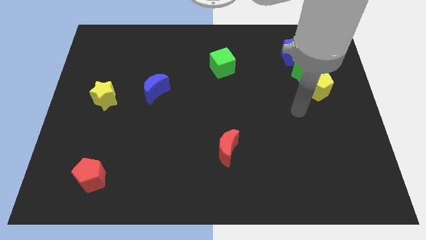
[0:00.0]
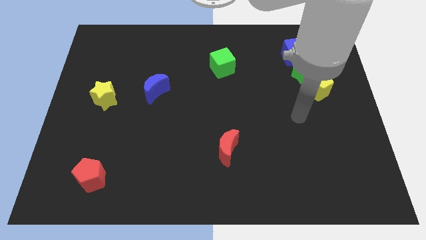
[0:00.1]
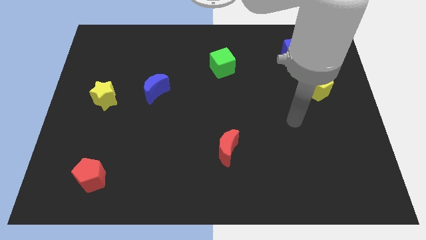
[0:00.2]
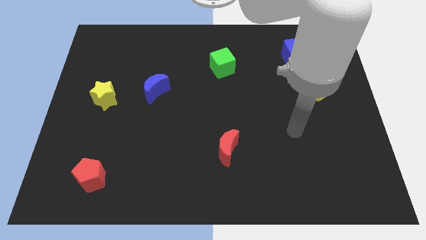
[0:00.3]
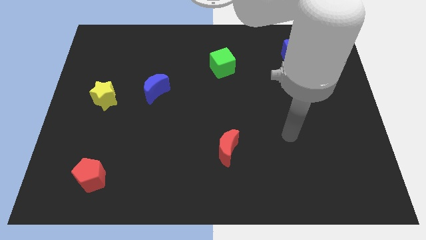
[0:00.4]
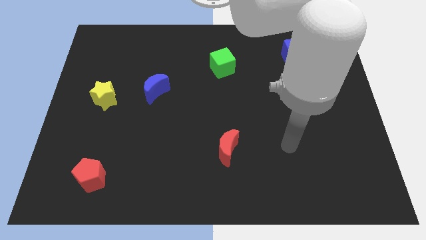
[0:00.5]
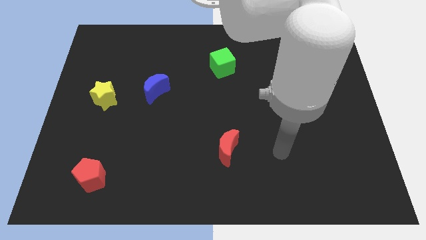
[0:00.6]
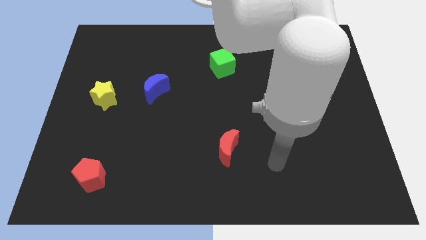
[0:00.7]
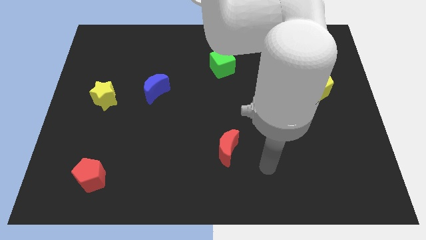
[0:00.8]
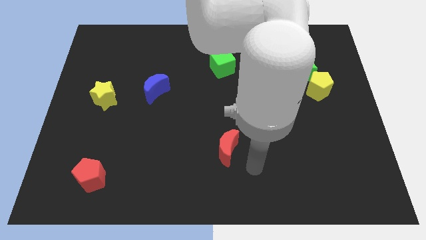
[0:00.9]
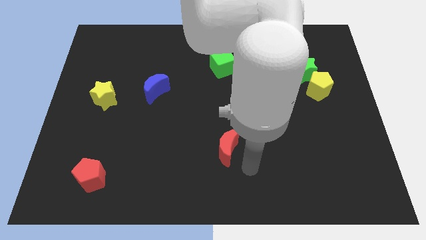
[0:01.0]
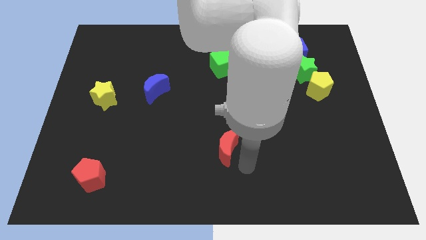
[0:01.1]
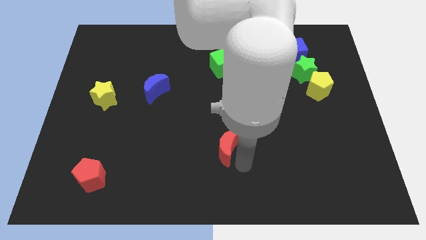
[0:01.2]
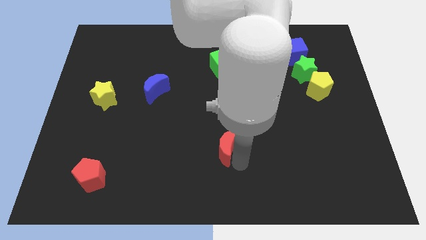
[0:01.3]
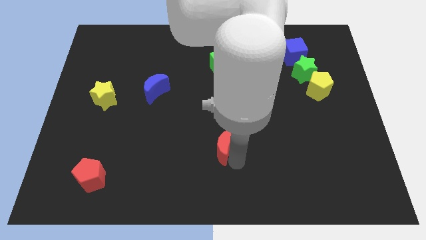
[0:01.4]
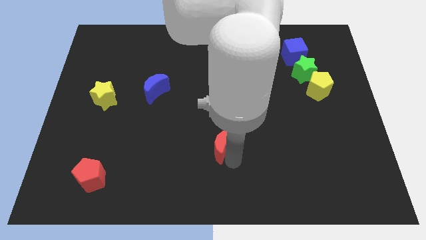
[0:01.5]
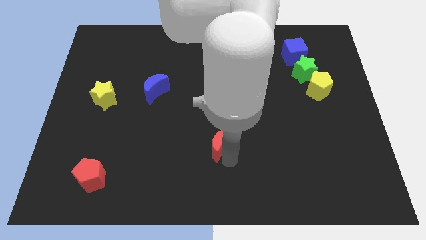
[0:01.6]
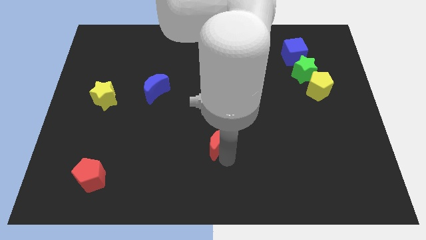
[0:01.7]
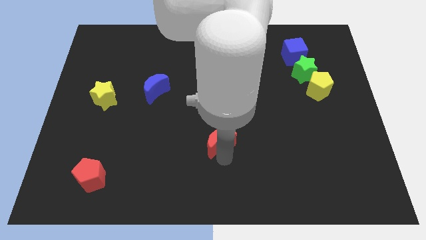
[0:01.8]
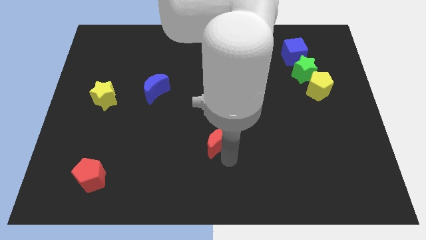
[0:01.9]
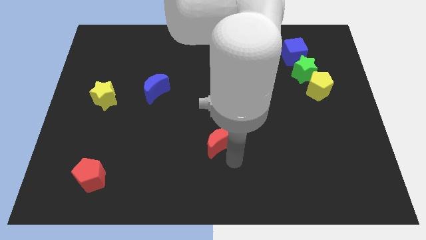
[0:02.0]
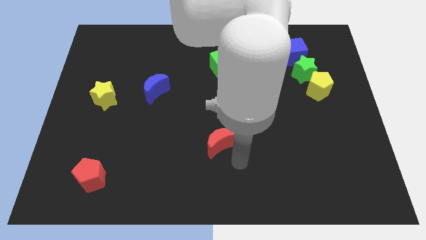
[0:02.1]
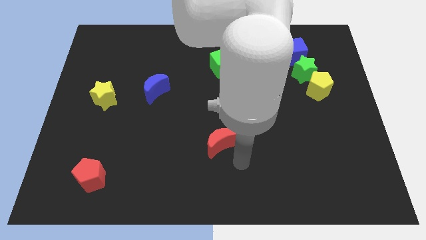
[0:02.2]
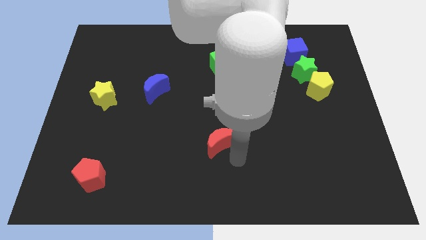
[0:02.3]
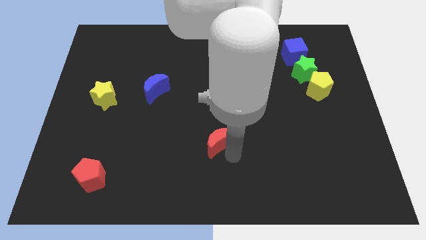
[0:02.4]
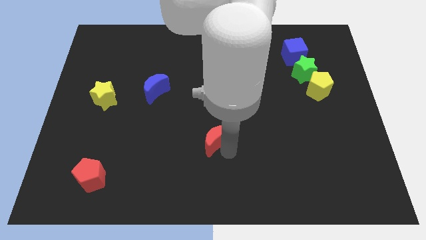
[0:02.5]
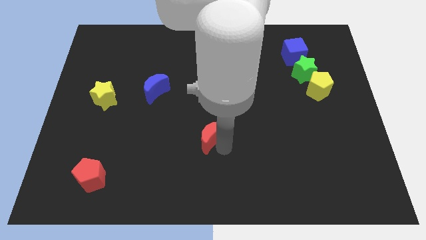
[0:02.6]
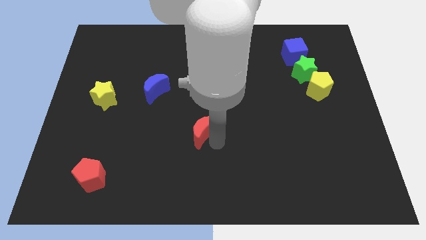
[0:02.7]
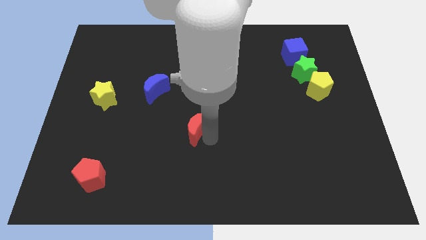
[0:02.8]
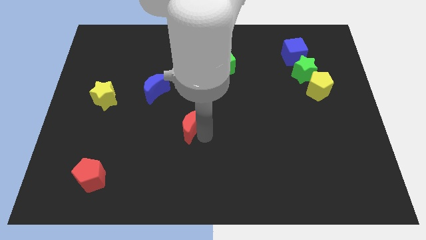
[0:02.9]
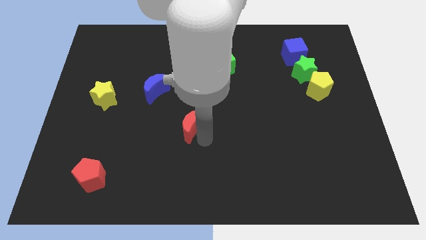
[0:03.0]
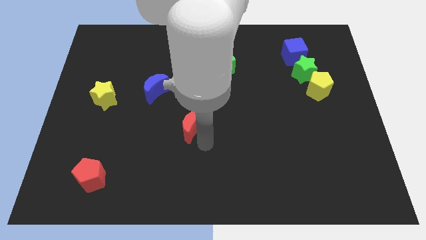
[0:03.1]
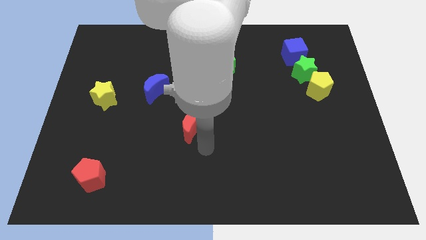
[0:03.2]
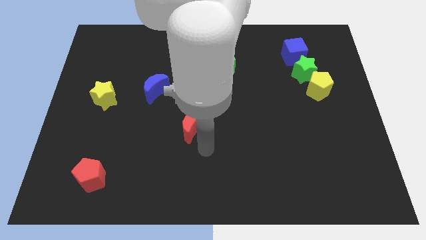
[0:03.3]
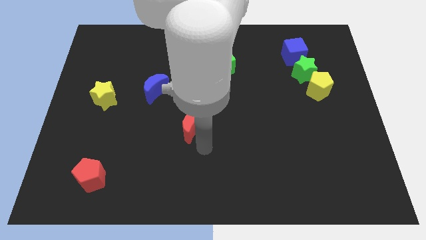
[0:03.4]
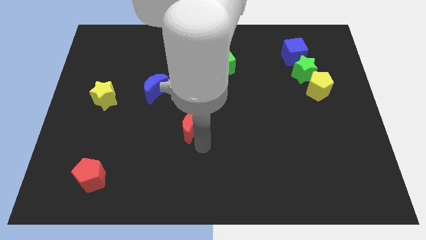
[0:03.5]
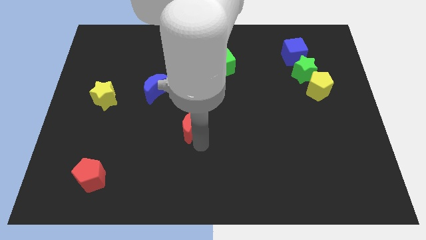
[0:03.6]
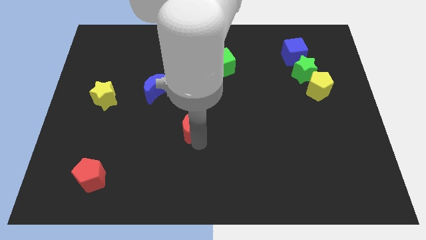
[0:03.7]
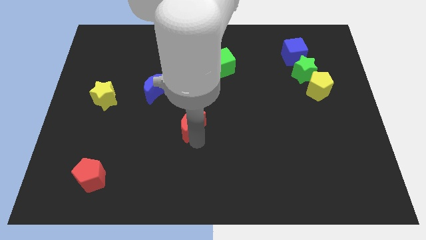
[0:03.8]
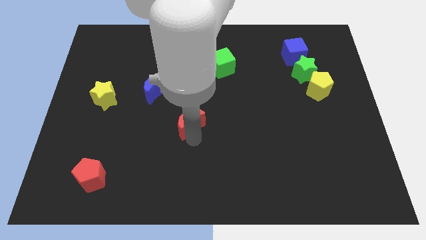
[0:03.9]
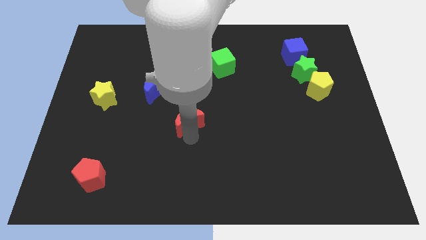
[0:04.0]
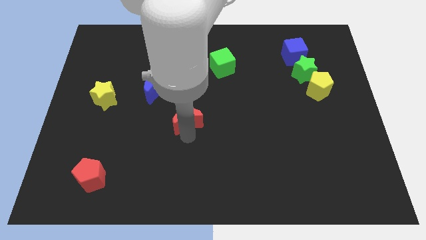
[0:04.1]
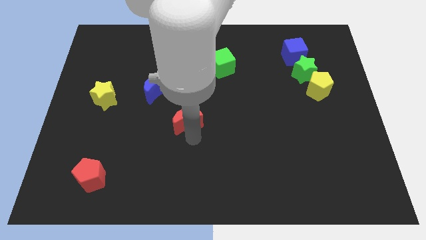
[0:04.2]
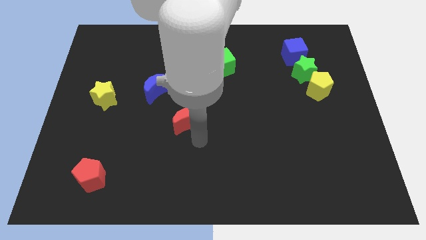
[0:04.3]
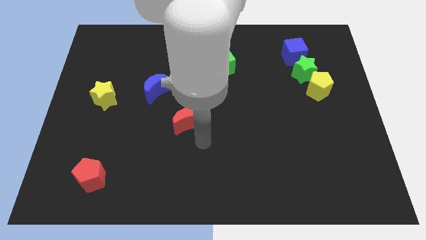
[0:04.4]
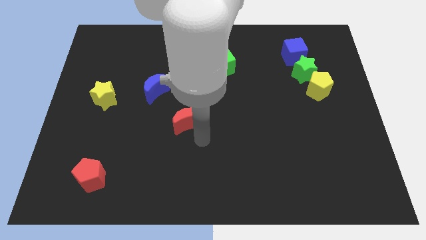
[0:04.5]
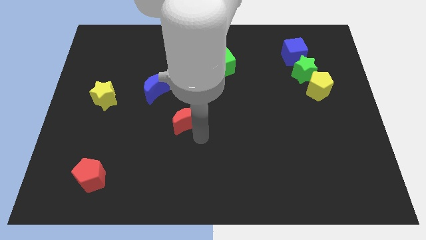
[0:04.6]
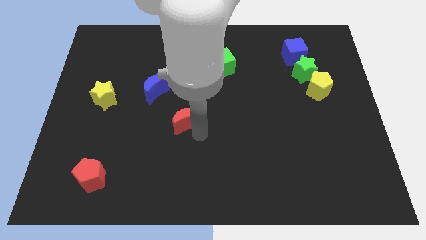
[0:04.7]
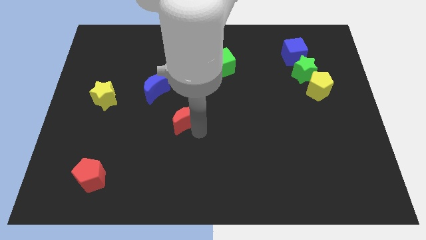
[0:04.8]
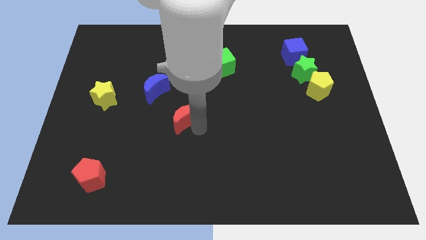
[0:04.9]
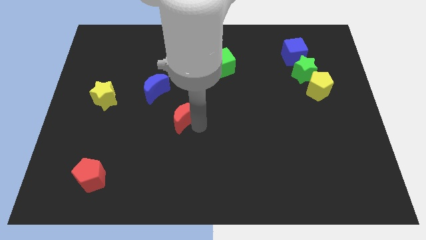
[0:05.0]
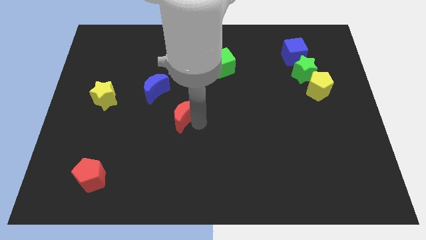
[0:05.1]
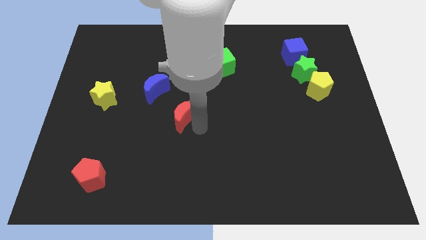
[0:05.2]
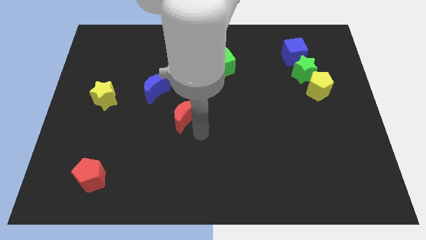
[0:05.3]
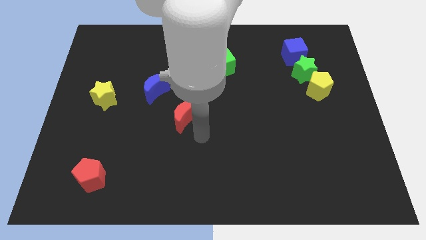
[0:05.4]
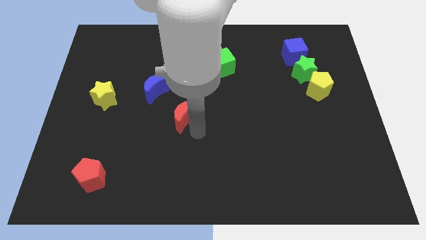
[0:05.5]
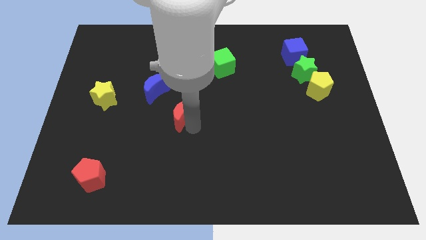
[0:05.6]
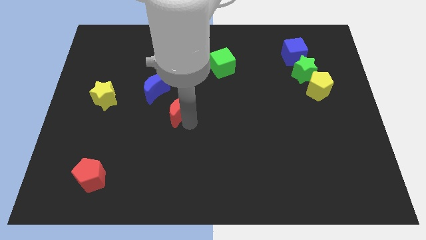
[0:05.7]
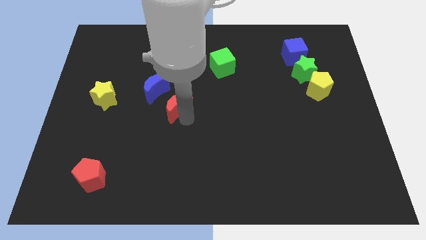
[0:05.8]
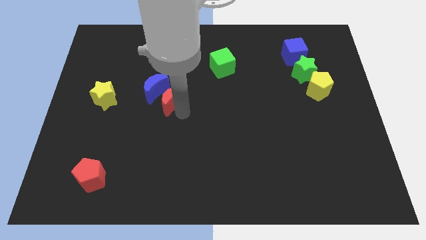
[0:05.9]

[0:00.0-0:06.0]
move the red moon close to the blue moon

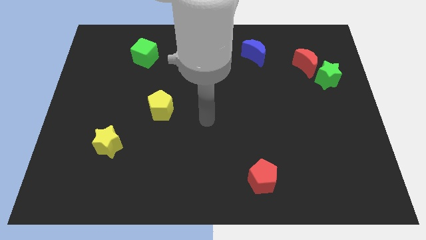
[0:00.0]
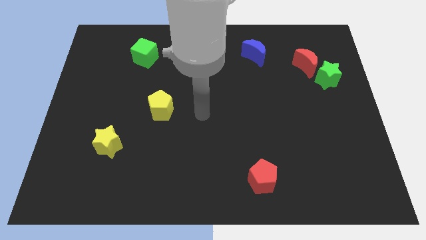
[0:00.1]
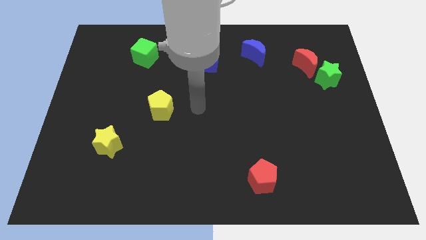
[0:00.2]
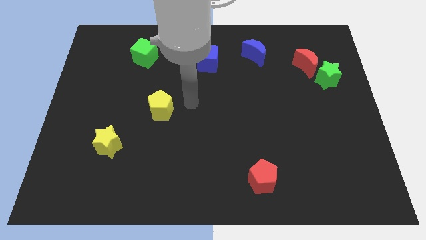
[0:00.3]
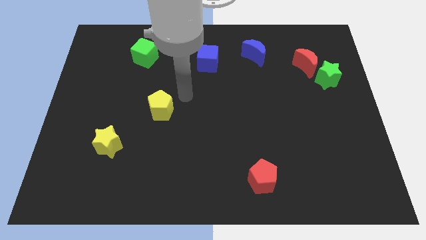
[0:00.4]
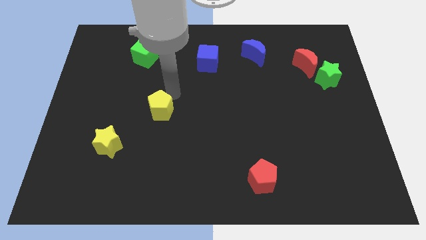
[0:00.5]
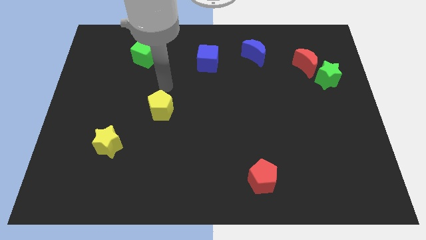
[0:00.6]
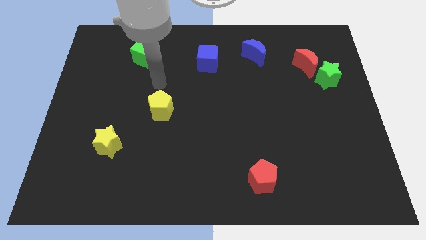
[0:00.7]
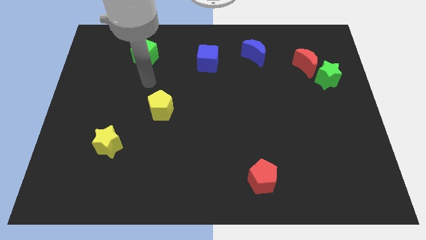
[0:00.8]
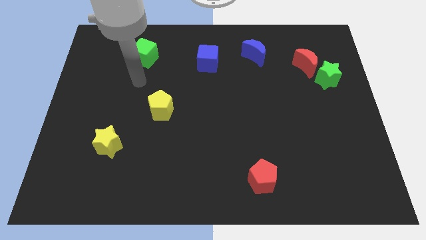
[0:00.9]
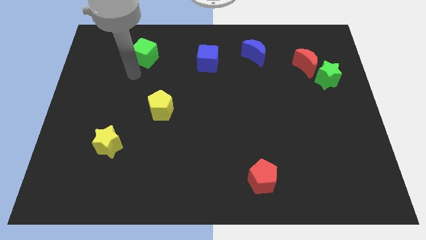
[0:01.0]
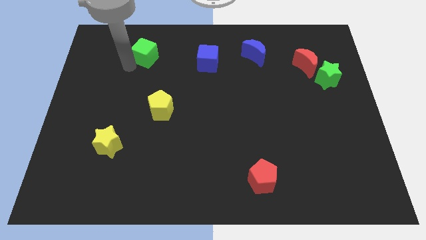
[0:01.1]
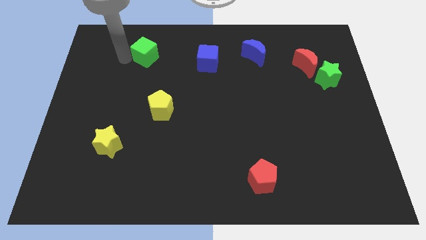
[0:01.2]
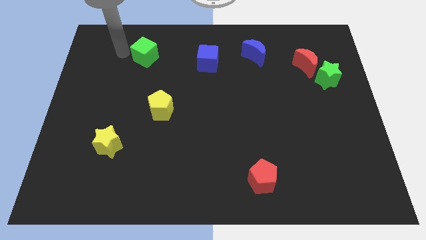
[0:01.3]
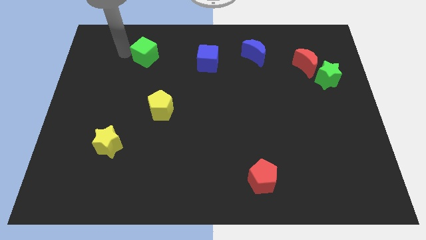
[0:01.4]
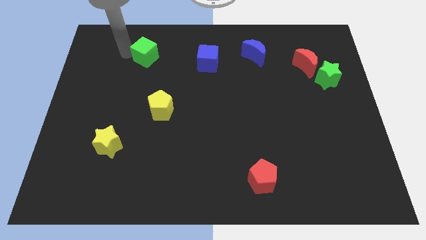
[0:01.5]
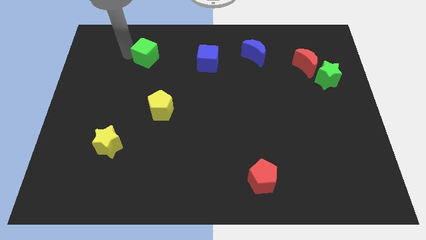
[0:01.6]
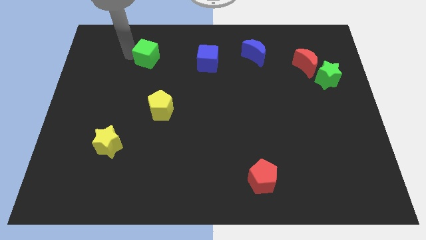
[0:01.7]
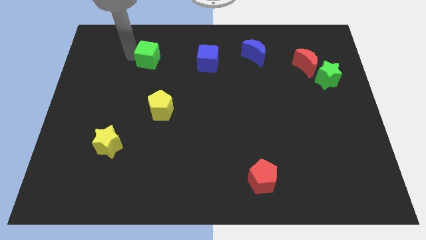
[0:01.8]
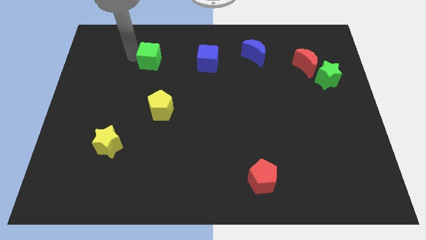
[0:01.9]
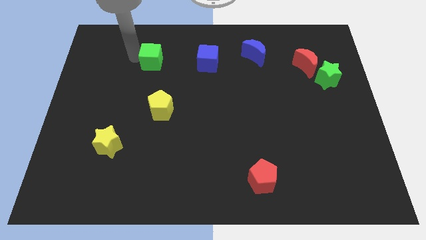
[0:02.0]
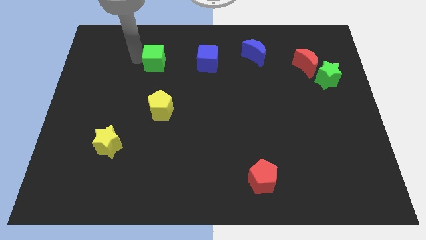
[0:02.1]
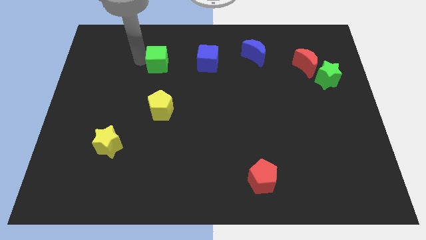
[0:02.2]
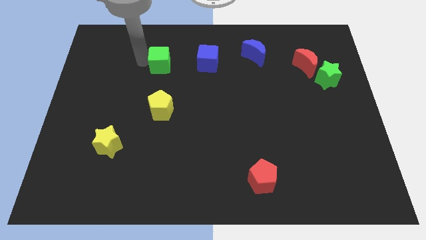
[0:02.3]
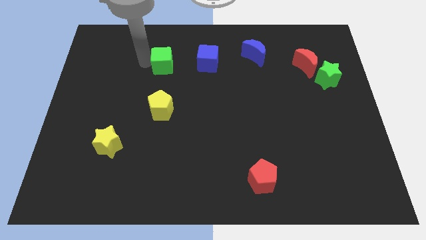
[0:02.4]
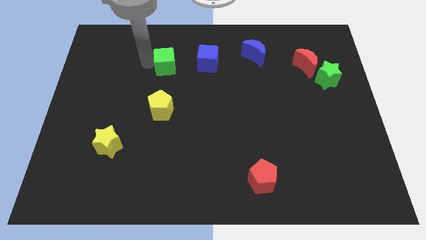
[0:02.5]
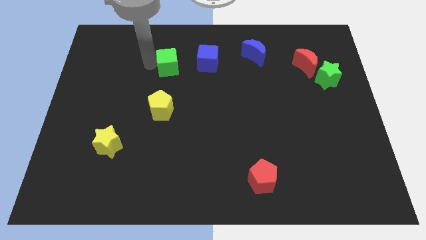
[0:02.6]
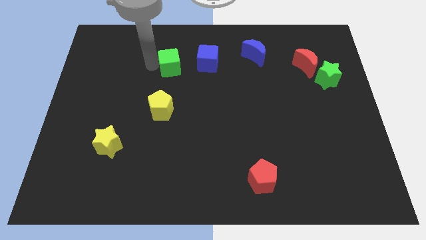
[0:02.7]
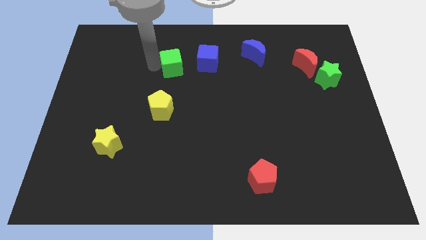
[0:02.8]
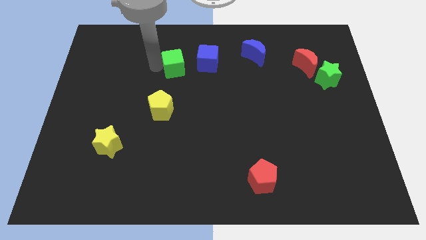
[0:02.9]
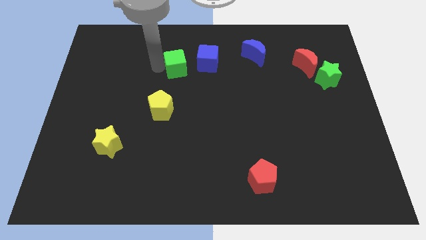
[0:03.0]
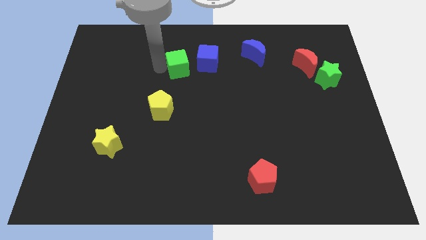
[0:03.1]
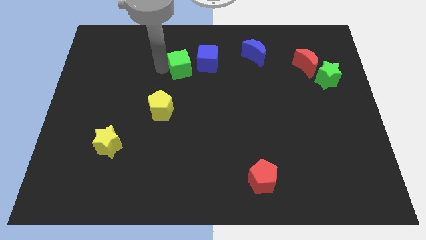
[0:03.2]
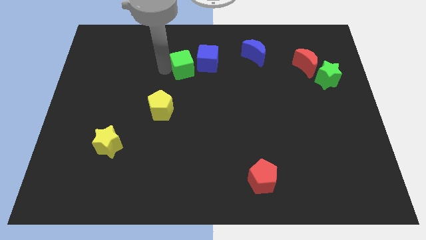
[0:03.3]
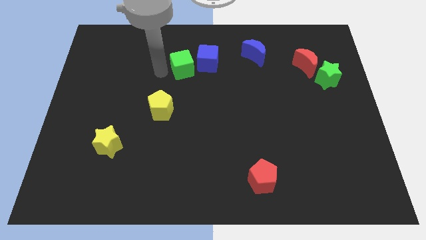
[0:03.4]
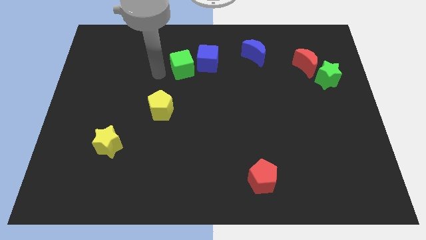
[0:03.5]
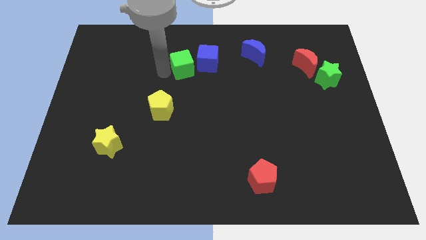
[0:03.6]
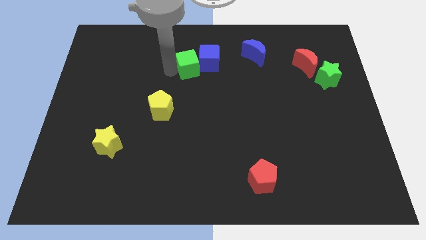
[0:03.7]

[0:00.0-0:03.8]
put the green cube to the blue cube
